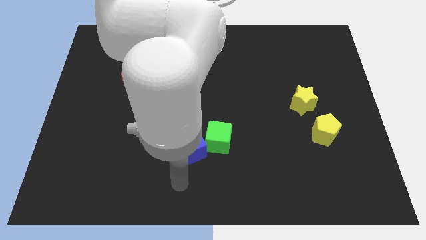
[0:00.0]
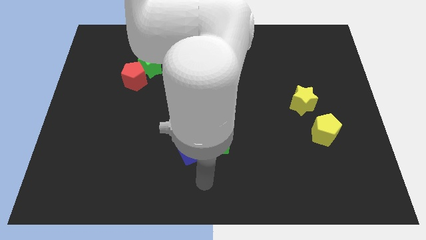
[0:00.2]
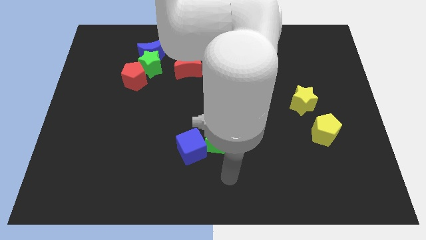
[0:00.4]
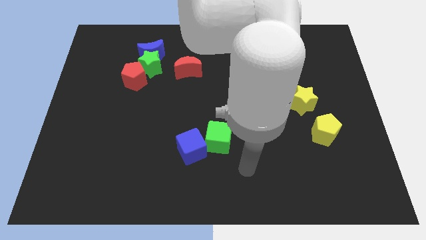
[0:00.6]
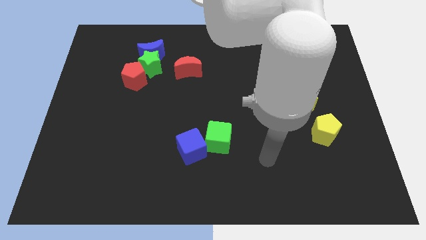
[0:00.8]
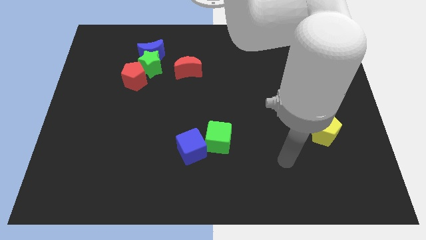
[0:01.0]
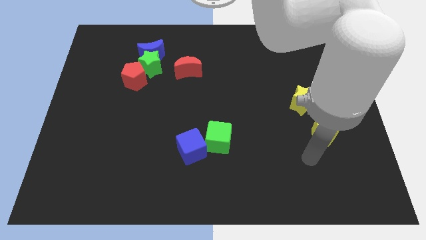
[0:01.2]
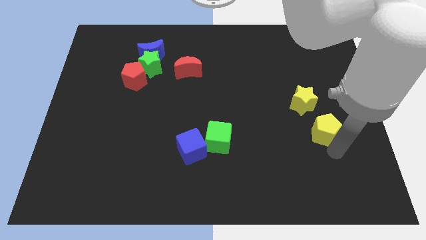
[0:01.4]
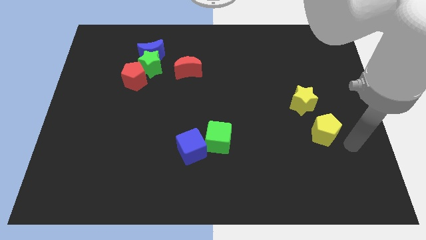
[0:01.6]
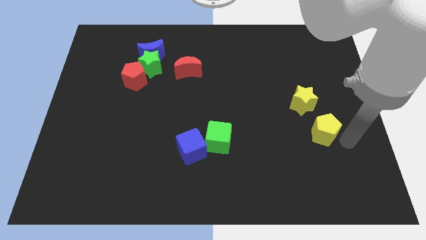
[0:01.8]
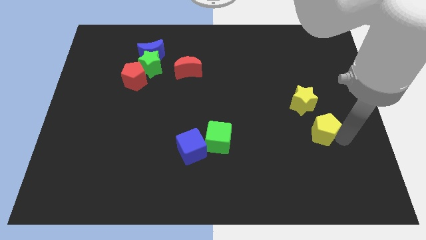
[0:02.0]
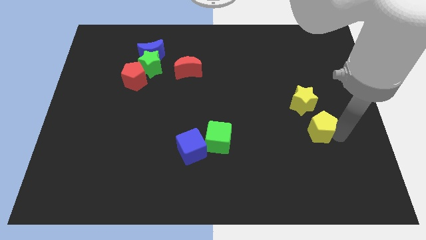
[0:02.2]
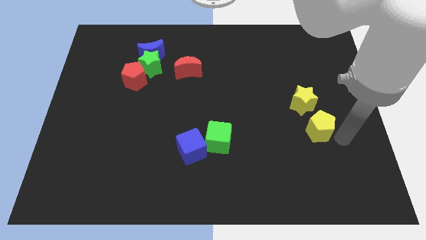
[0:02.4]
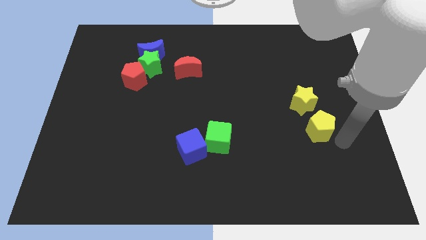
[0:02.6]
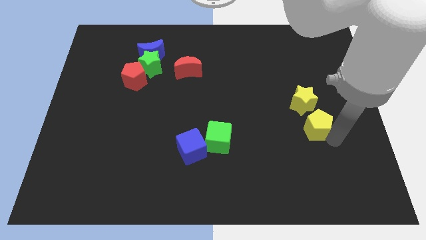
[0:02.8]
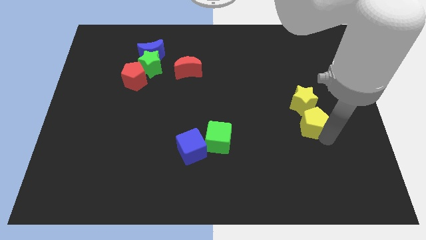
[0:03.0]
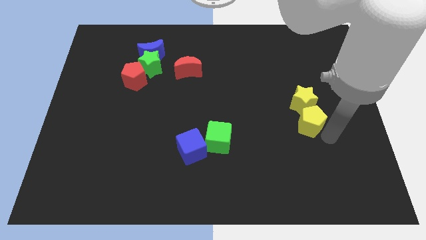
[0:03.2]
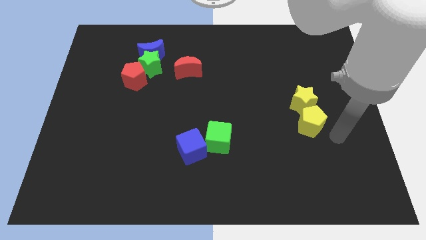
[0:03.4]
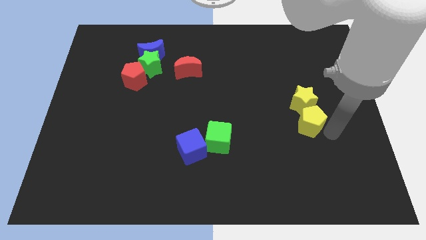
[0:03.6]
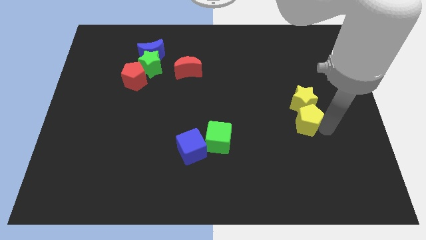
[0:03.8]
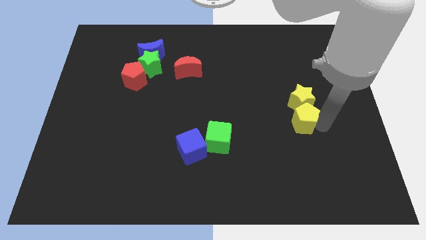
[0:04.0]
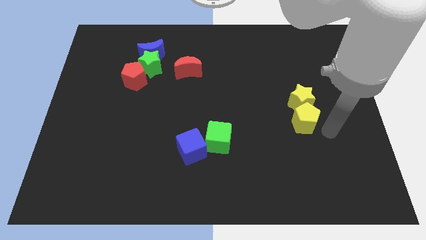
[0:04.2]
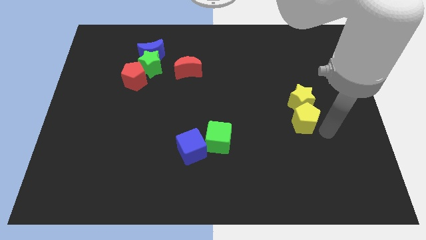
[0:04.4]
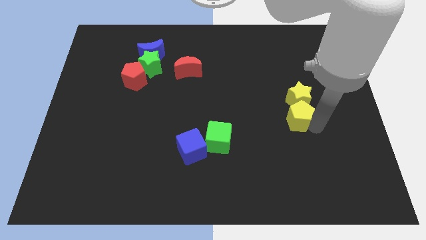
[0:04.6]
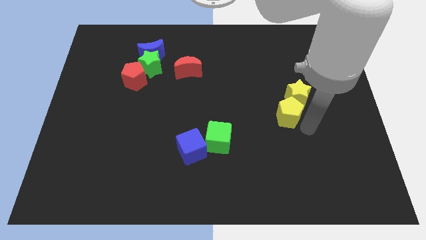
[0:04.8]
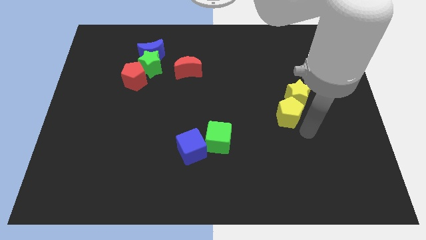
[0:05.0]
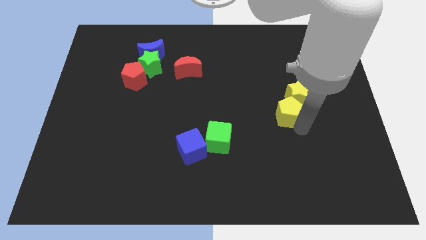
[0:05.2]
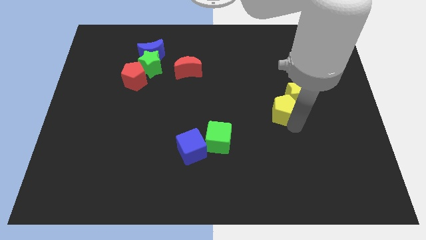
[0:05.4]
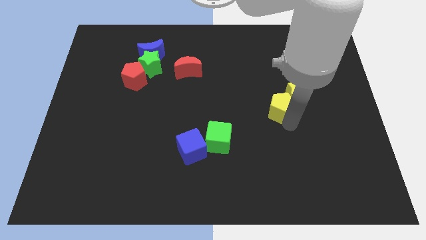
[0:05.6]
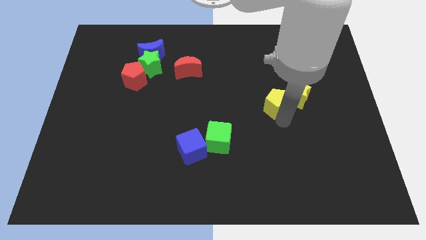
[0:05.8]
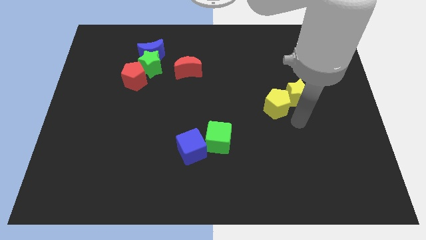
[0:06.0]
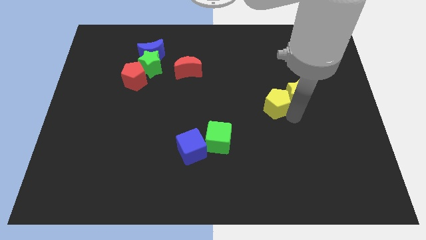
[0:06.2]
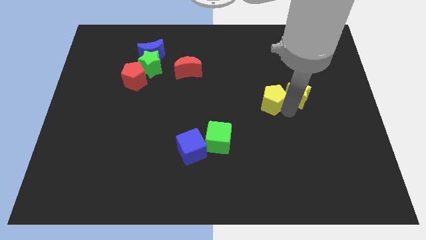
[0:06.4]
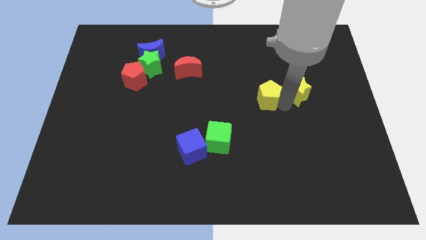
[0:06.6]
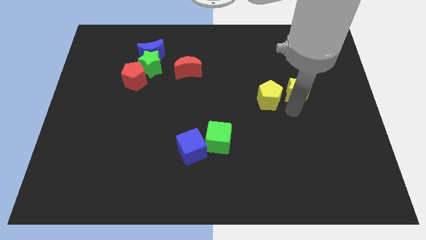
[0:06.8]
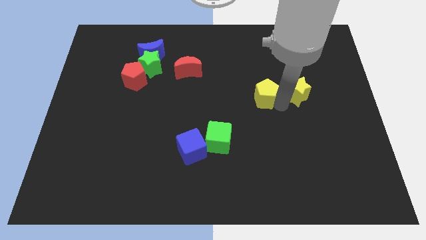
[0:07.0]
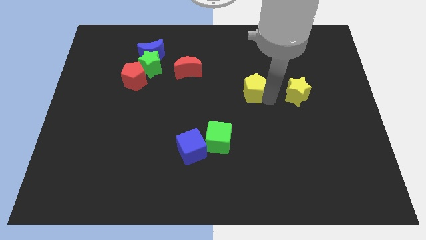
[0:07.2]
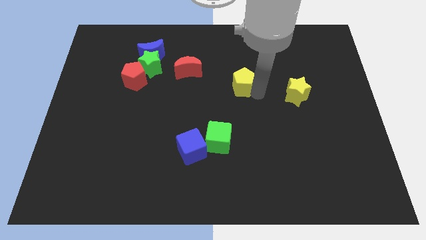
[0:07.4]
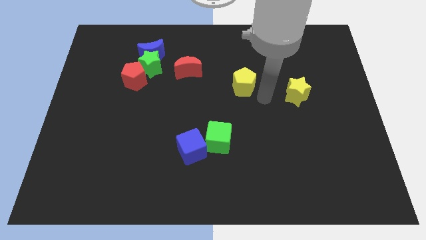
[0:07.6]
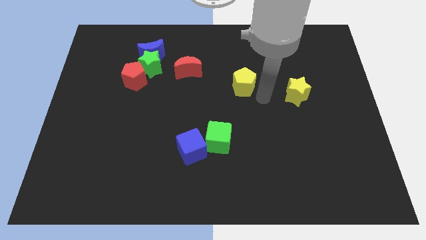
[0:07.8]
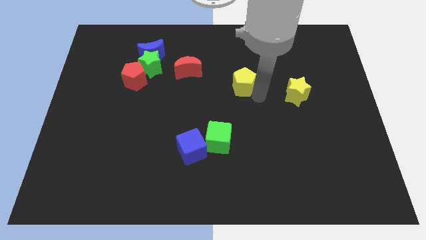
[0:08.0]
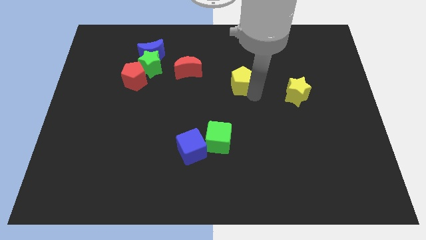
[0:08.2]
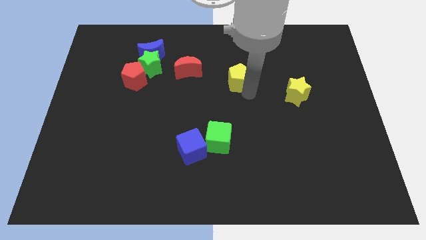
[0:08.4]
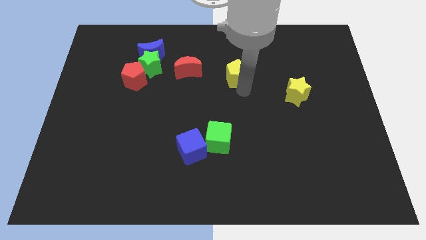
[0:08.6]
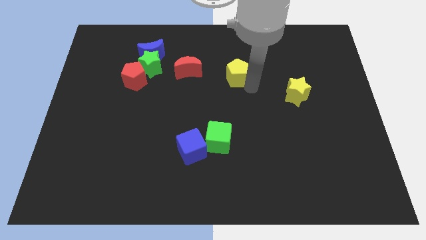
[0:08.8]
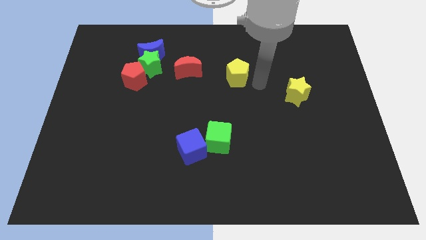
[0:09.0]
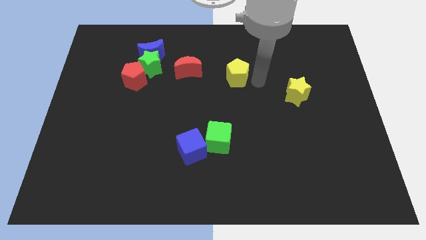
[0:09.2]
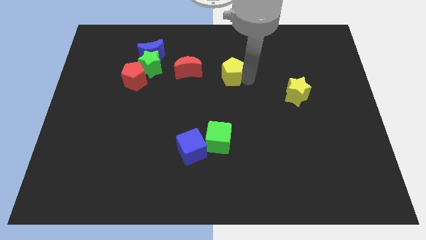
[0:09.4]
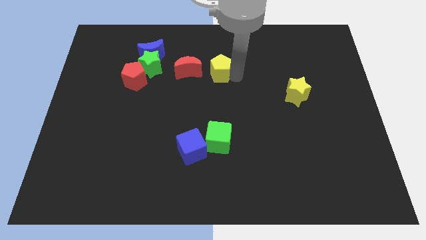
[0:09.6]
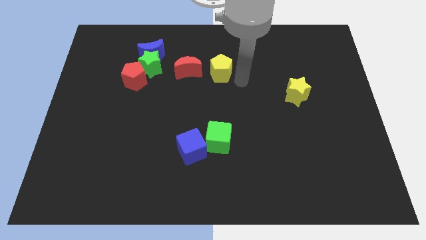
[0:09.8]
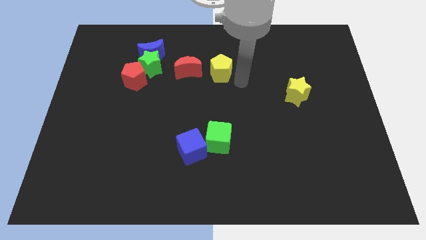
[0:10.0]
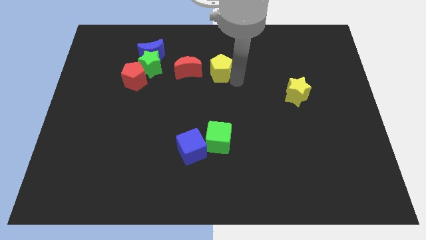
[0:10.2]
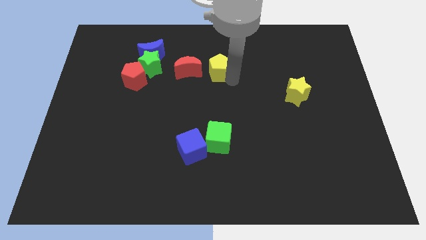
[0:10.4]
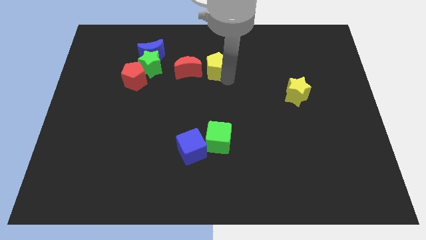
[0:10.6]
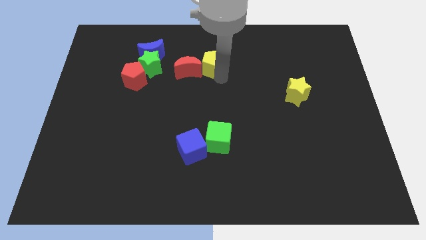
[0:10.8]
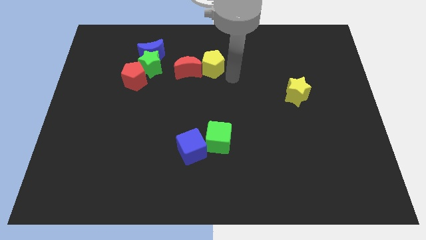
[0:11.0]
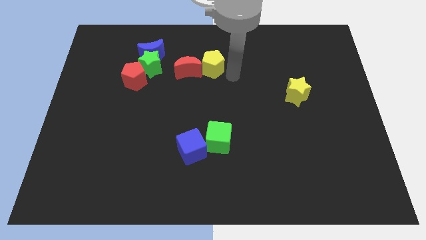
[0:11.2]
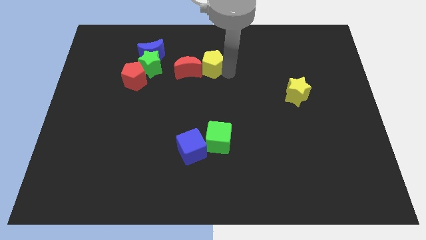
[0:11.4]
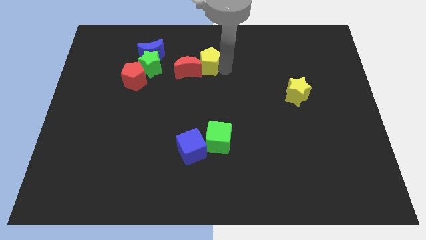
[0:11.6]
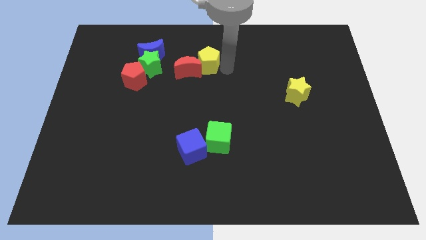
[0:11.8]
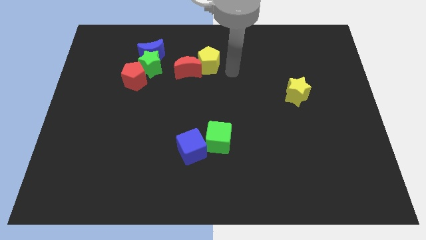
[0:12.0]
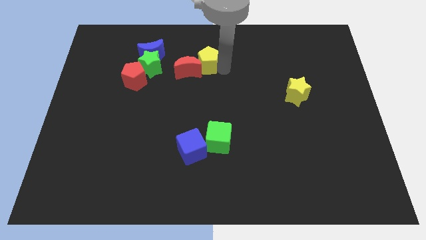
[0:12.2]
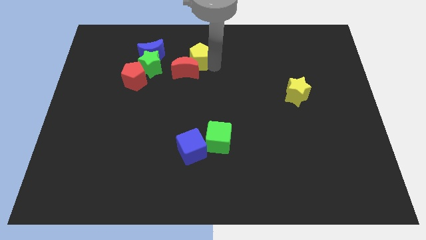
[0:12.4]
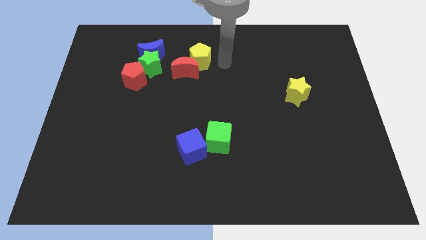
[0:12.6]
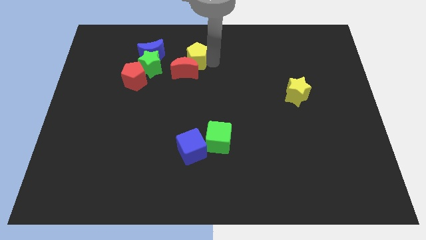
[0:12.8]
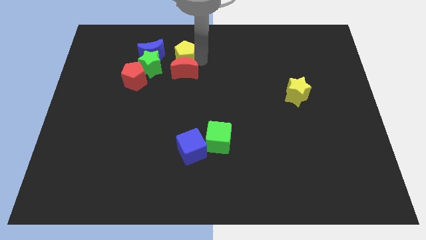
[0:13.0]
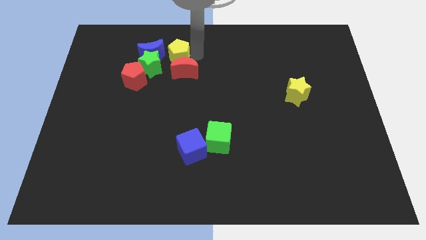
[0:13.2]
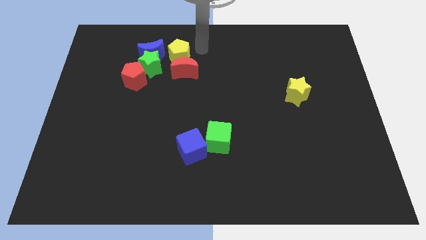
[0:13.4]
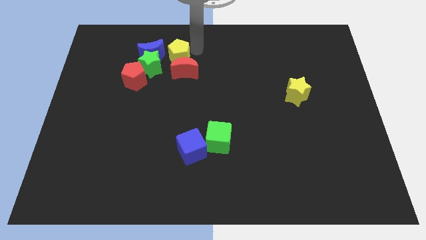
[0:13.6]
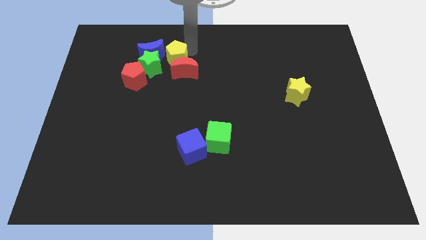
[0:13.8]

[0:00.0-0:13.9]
slide the yellow pentagon to the top right of the red pentagon
